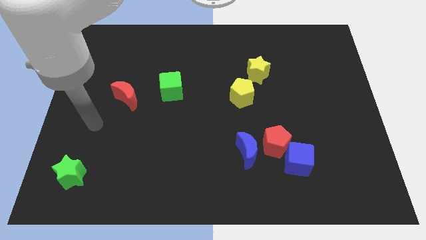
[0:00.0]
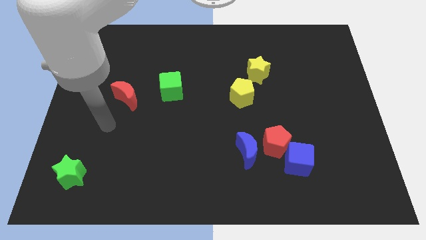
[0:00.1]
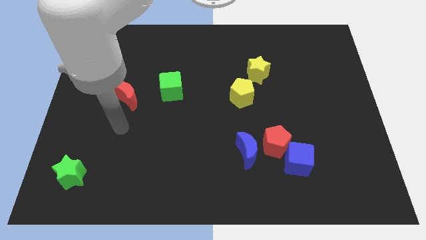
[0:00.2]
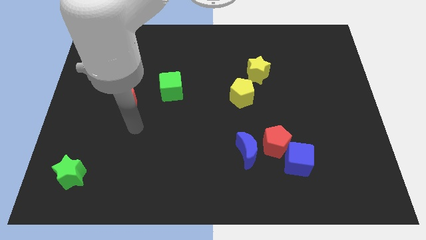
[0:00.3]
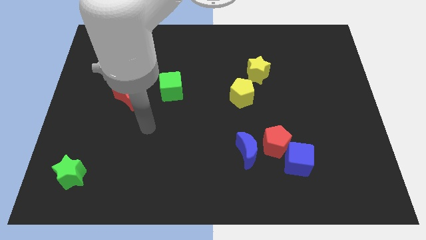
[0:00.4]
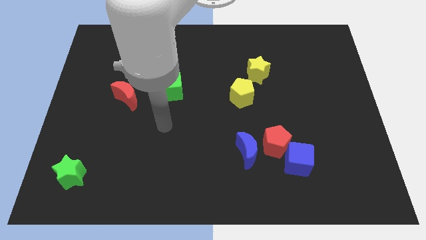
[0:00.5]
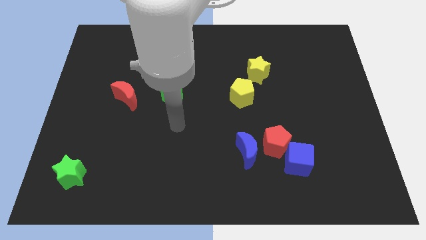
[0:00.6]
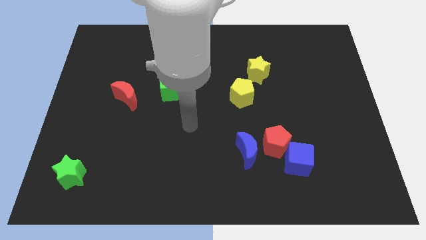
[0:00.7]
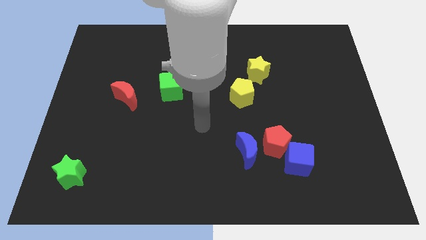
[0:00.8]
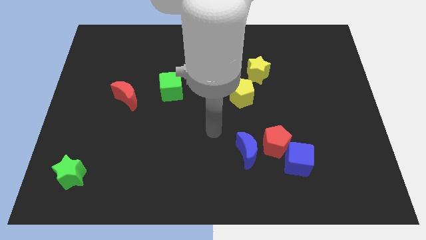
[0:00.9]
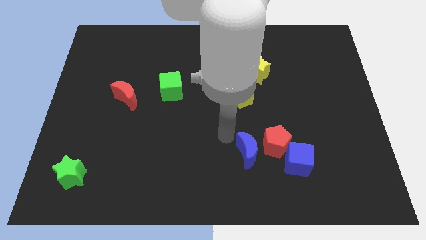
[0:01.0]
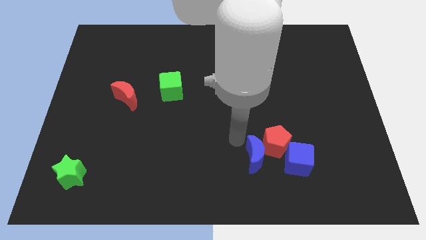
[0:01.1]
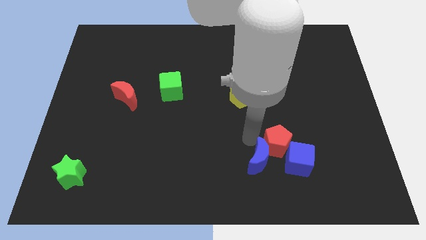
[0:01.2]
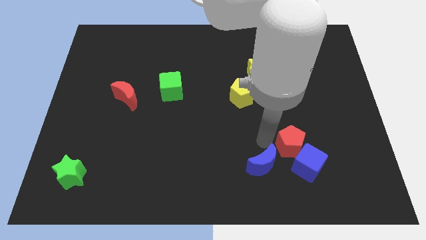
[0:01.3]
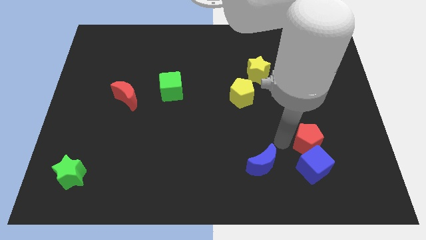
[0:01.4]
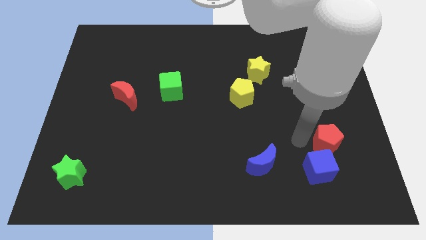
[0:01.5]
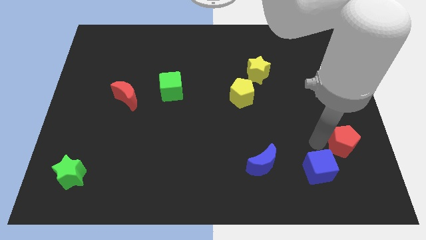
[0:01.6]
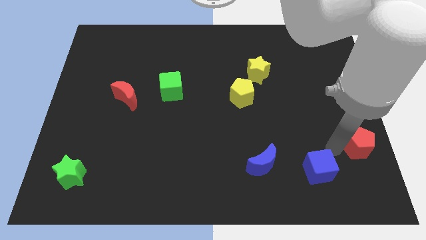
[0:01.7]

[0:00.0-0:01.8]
separate the blue cube from the red pentagon

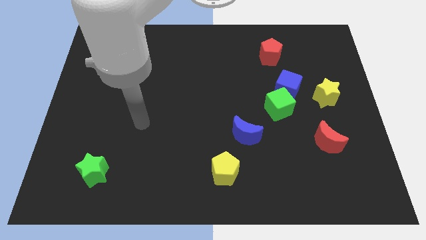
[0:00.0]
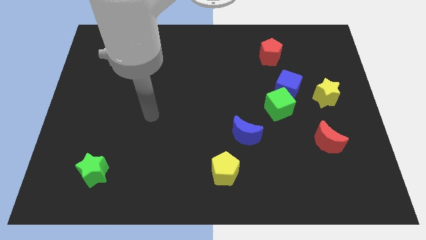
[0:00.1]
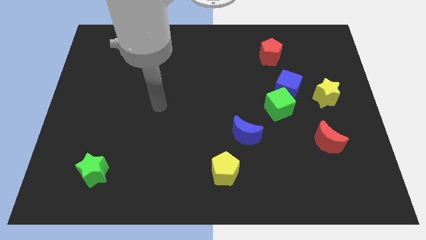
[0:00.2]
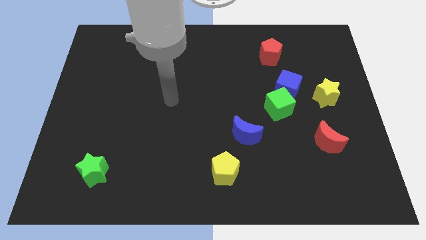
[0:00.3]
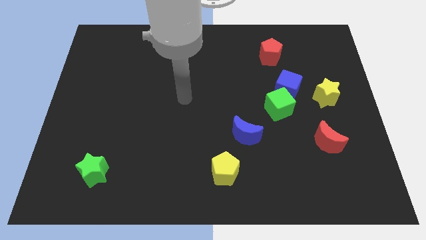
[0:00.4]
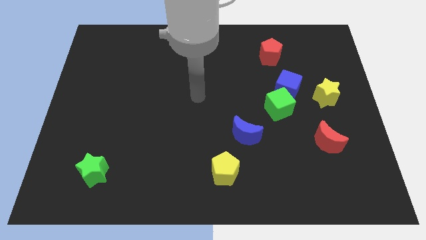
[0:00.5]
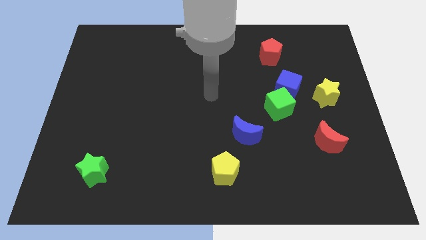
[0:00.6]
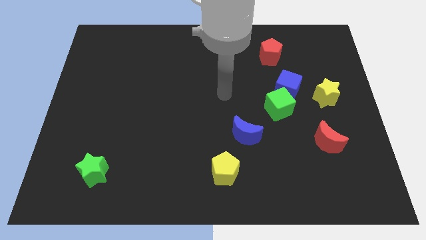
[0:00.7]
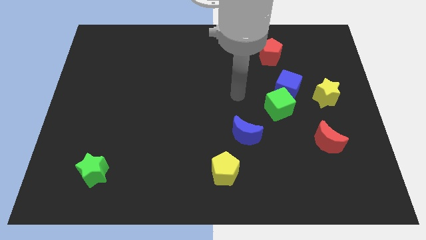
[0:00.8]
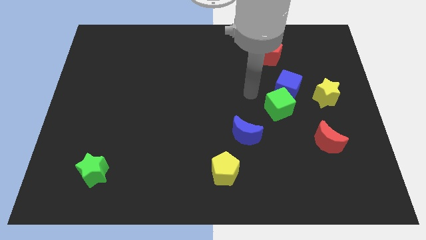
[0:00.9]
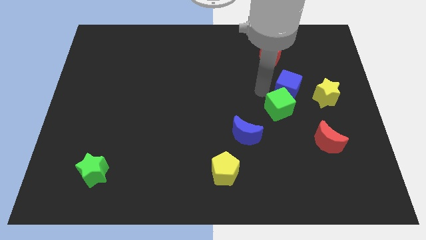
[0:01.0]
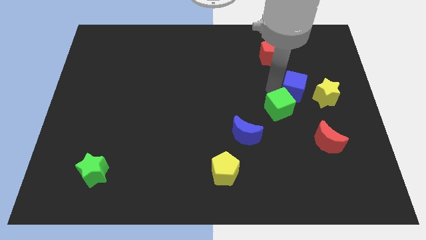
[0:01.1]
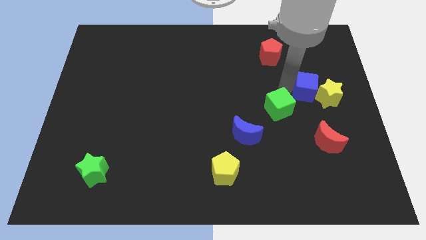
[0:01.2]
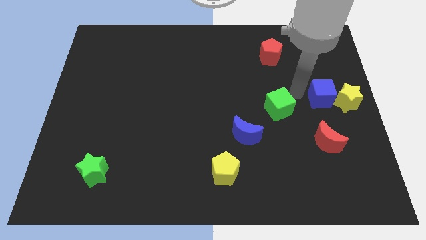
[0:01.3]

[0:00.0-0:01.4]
pull the green cube apart from the blue cube

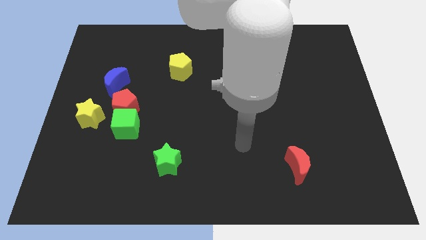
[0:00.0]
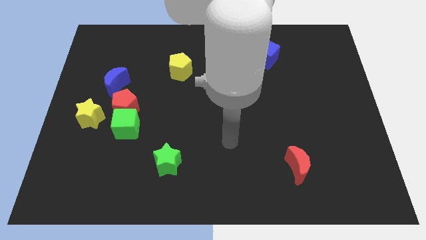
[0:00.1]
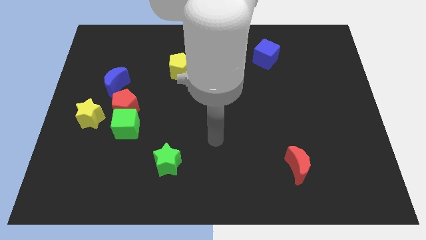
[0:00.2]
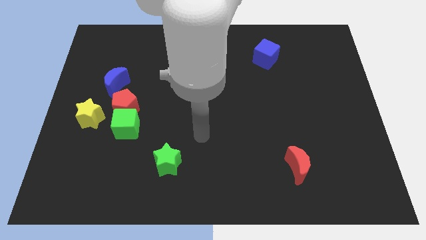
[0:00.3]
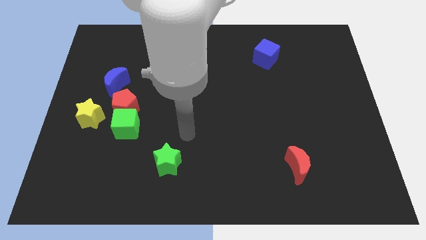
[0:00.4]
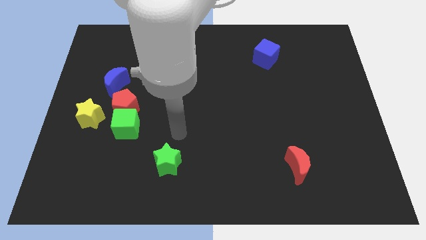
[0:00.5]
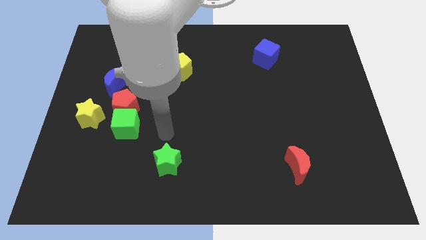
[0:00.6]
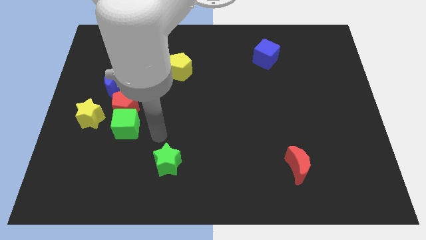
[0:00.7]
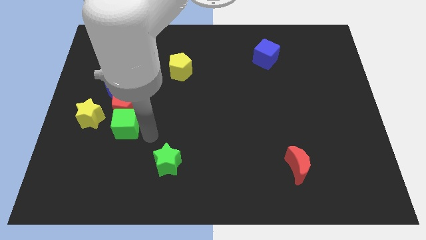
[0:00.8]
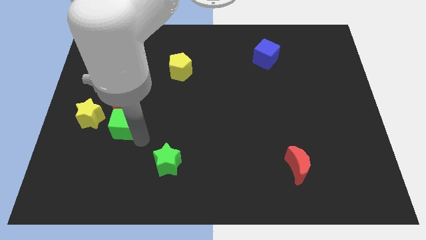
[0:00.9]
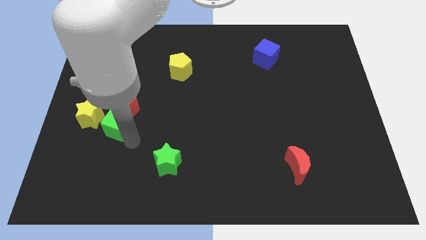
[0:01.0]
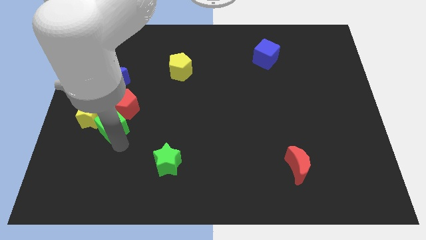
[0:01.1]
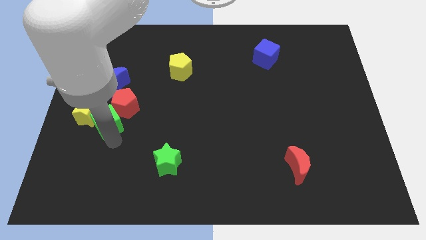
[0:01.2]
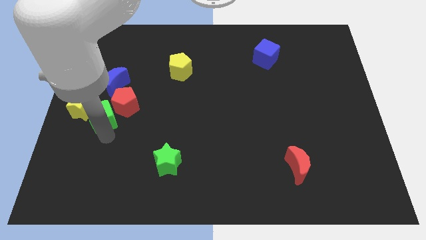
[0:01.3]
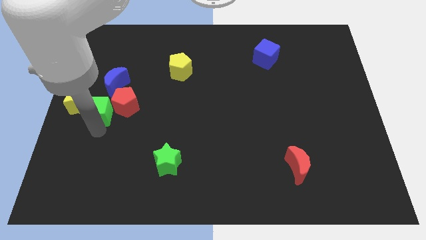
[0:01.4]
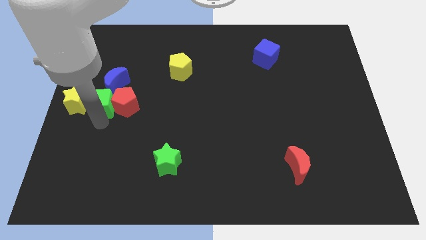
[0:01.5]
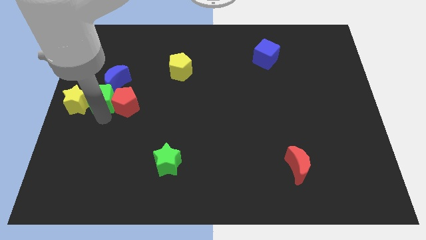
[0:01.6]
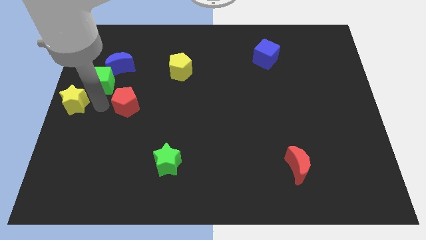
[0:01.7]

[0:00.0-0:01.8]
pull the red pentagon apart from the green cube, blue moon, and yellow star

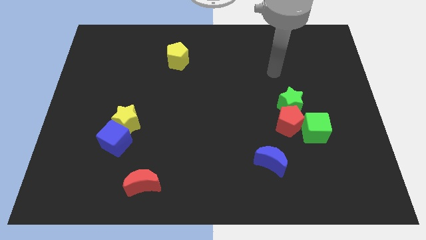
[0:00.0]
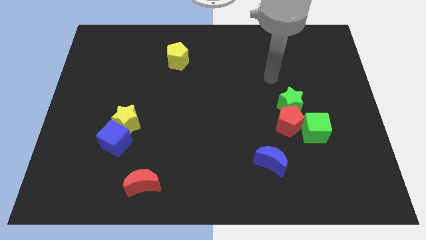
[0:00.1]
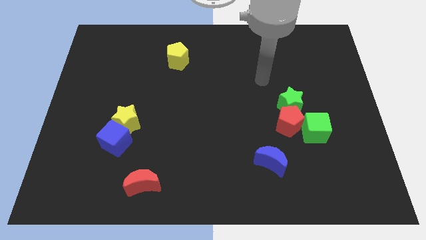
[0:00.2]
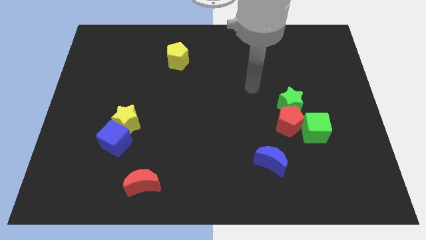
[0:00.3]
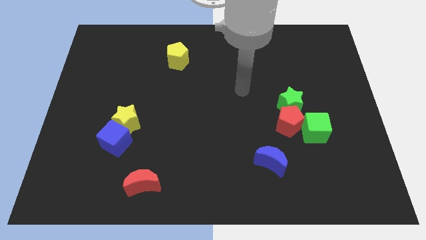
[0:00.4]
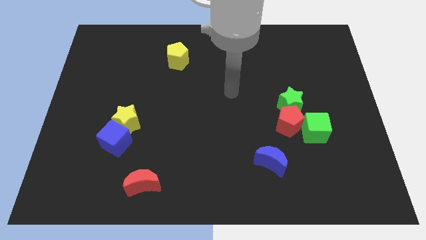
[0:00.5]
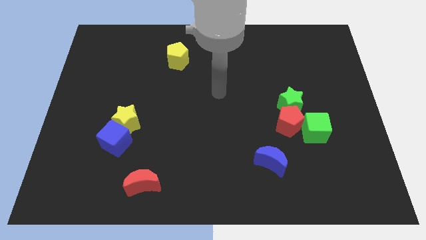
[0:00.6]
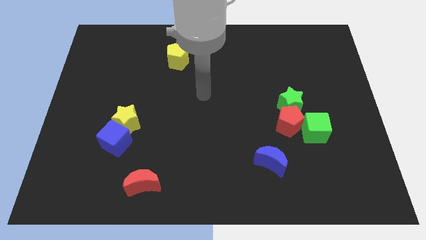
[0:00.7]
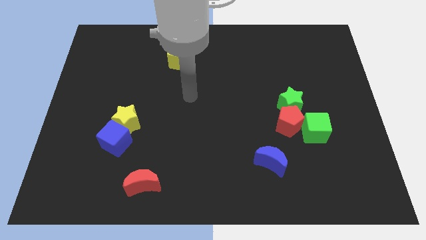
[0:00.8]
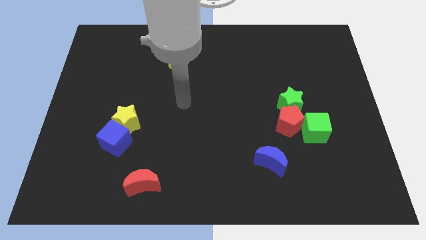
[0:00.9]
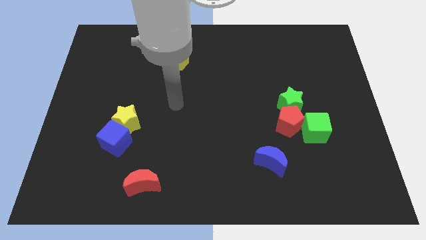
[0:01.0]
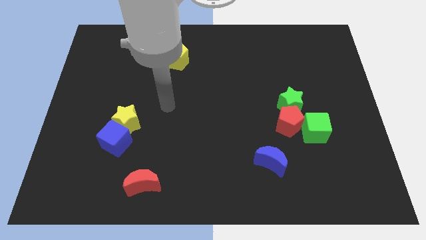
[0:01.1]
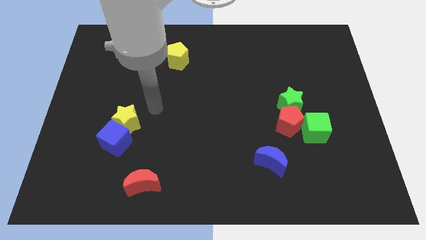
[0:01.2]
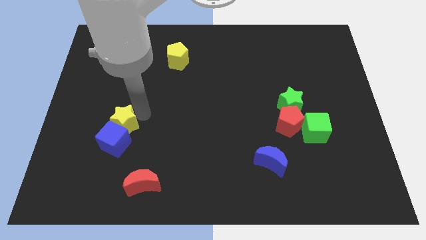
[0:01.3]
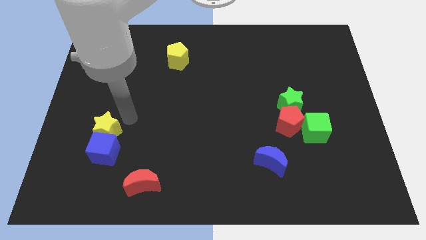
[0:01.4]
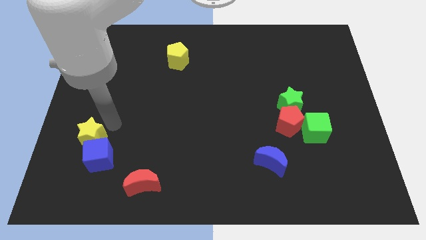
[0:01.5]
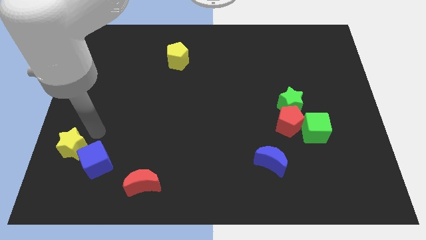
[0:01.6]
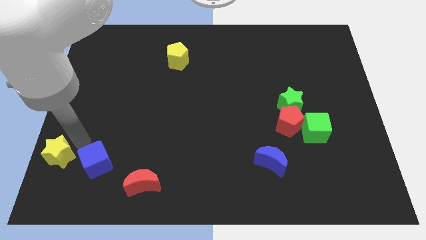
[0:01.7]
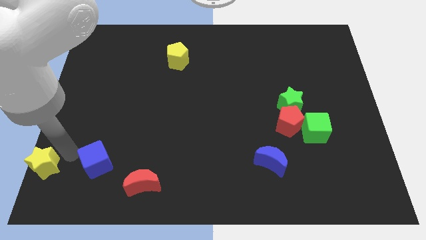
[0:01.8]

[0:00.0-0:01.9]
pull the blue cube apart from the yellow star

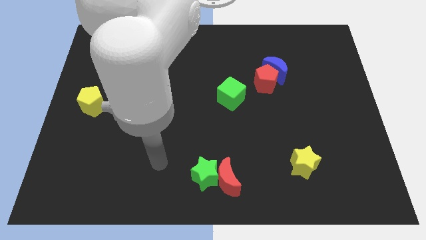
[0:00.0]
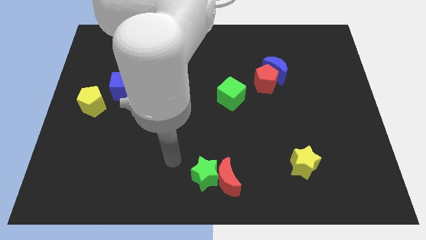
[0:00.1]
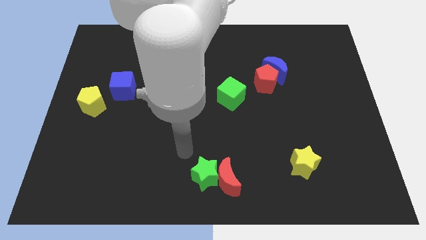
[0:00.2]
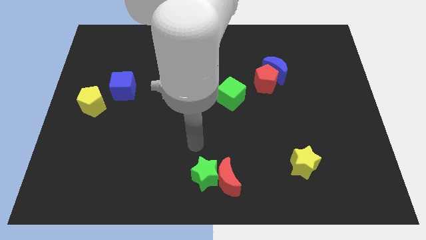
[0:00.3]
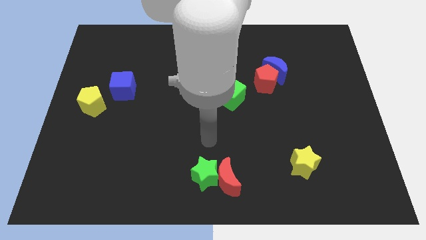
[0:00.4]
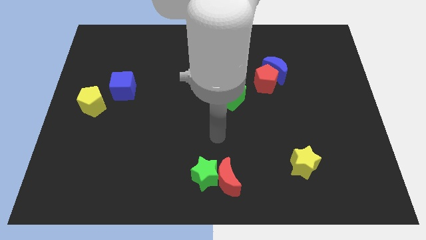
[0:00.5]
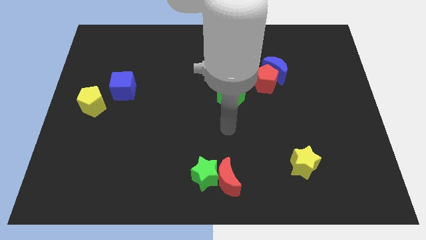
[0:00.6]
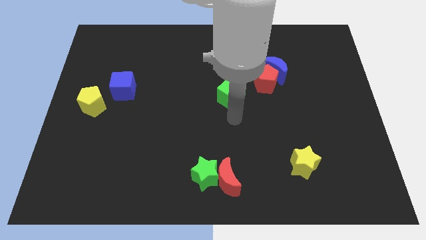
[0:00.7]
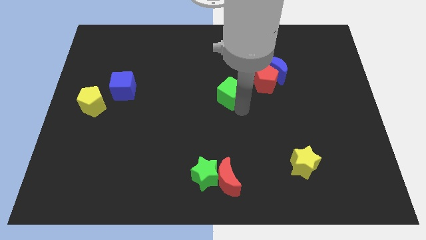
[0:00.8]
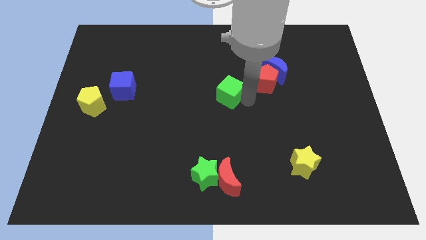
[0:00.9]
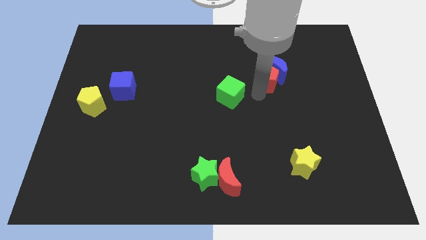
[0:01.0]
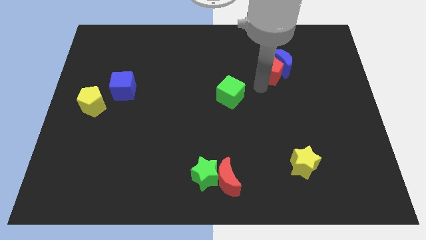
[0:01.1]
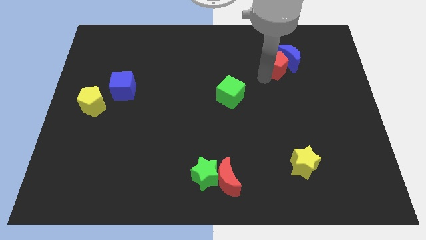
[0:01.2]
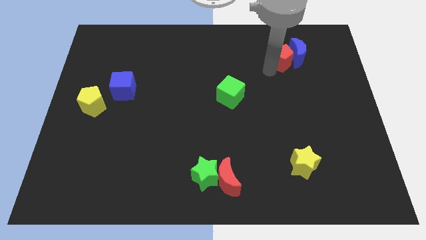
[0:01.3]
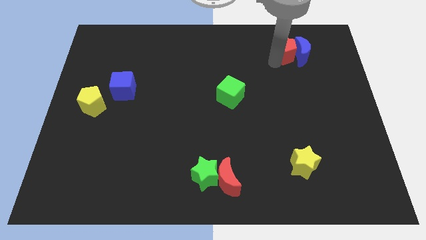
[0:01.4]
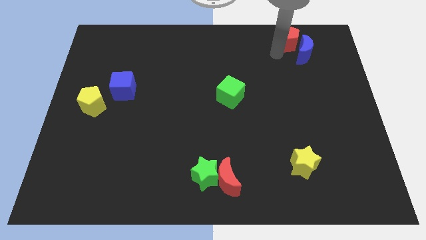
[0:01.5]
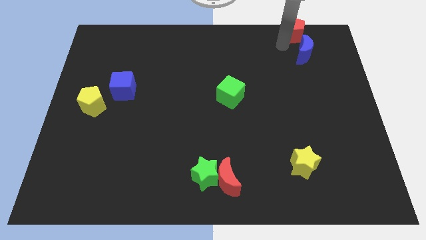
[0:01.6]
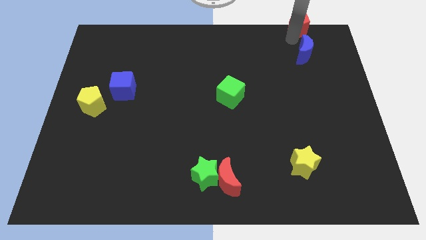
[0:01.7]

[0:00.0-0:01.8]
move the blue moon away from the red pentagon

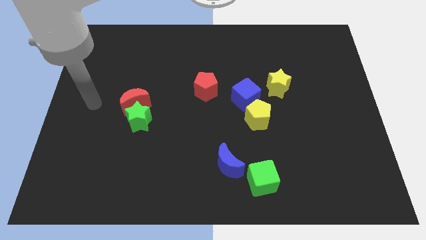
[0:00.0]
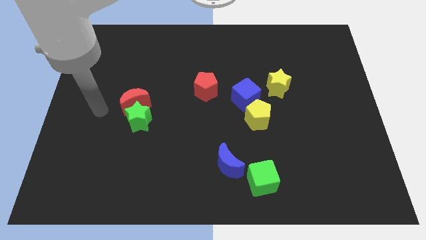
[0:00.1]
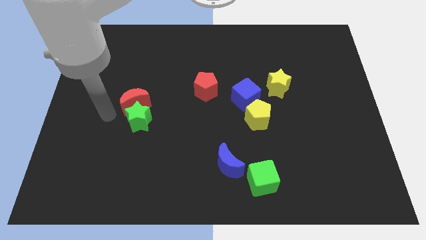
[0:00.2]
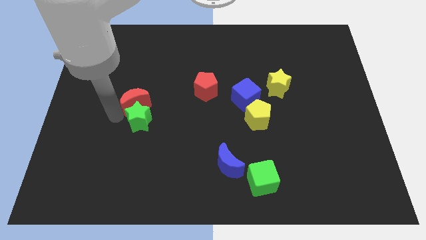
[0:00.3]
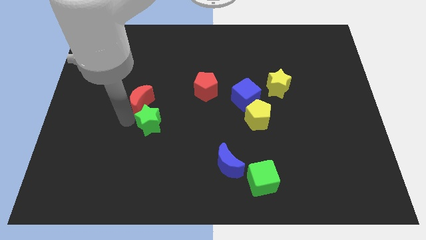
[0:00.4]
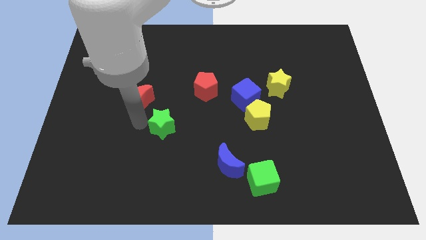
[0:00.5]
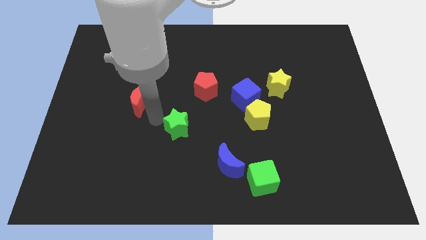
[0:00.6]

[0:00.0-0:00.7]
separate the red moon from the green star
